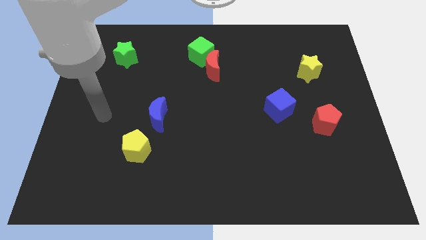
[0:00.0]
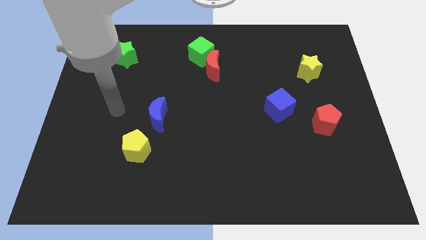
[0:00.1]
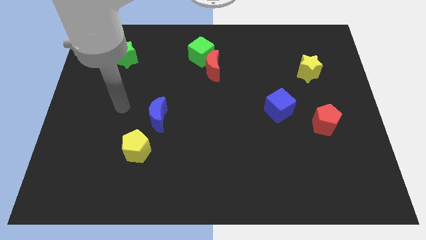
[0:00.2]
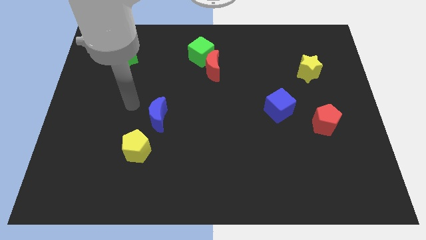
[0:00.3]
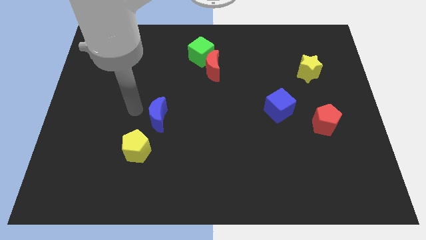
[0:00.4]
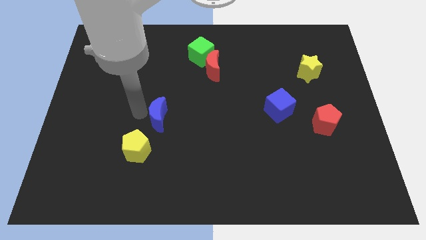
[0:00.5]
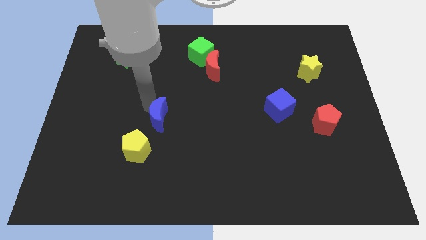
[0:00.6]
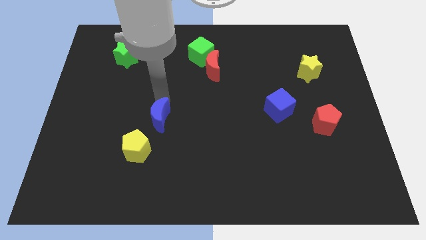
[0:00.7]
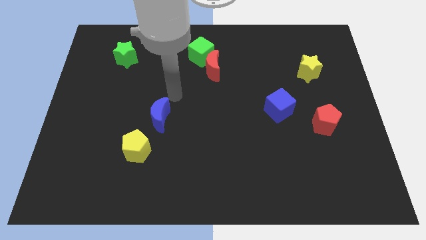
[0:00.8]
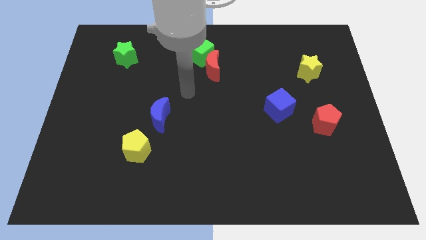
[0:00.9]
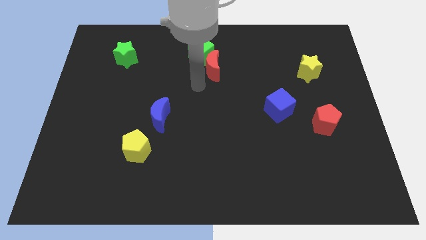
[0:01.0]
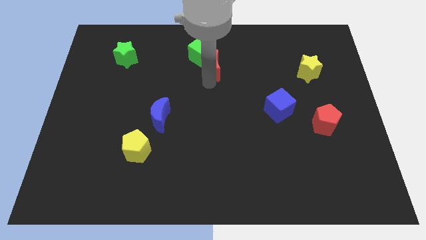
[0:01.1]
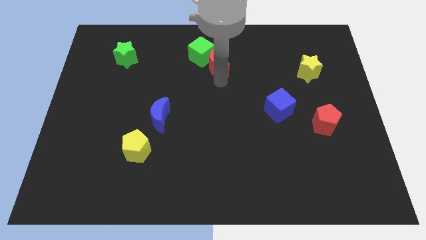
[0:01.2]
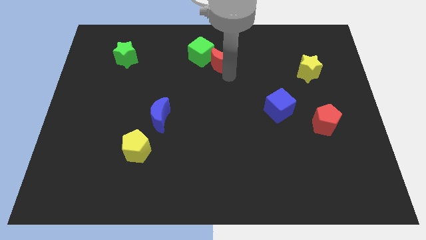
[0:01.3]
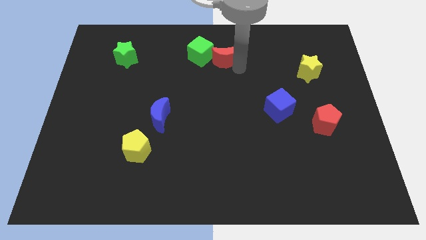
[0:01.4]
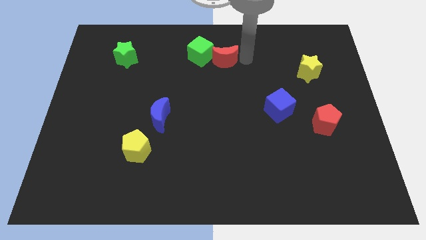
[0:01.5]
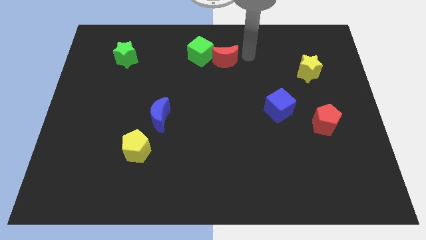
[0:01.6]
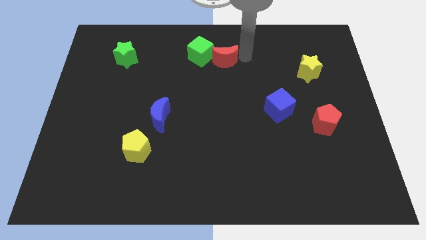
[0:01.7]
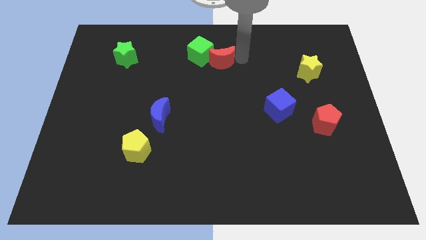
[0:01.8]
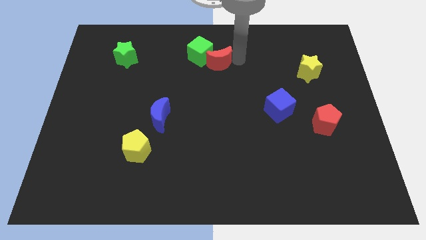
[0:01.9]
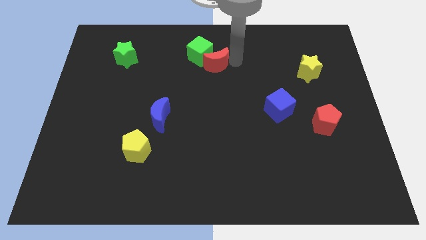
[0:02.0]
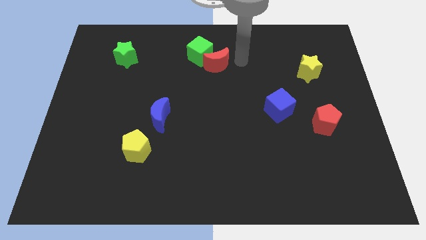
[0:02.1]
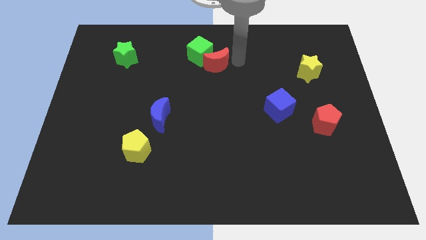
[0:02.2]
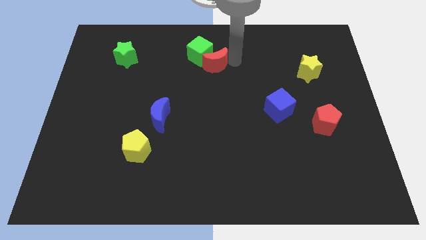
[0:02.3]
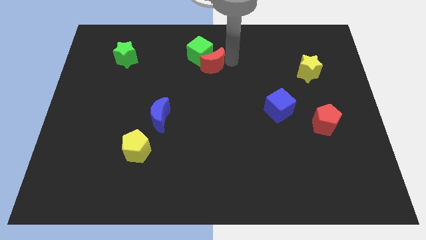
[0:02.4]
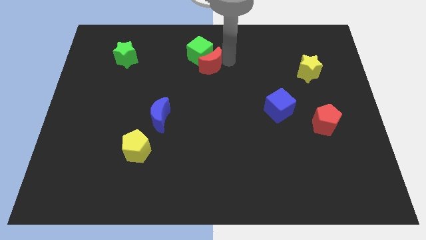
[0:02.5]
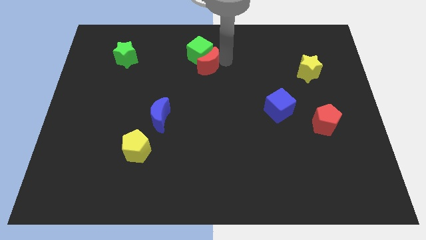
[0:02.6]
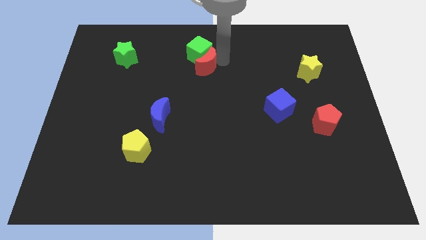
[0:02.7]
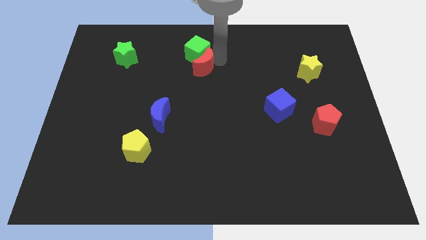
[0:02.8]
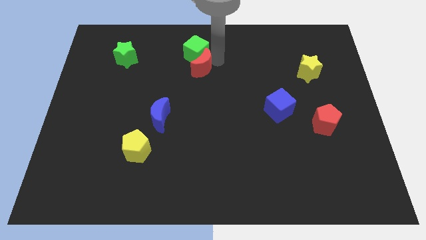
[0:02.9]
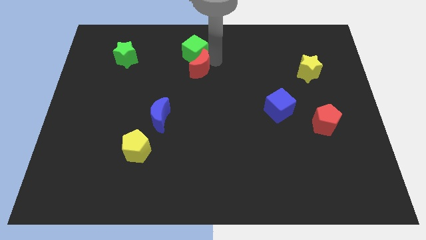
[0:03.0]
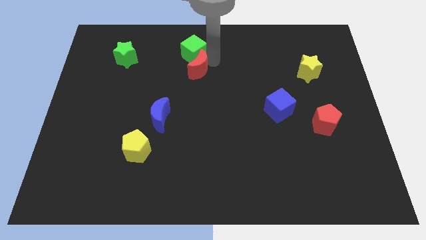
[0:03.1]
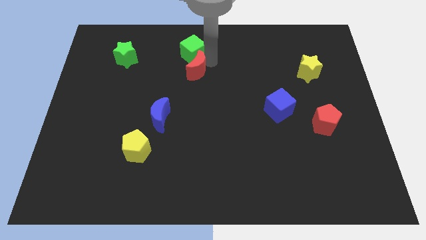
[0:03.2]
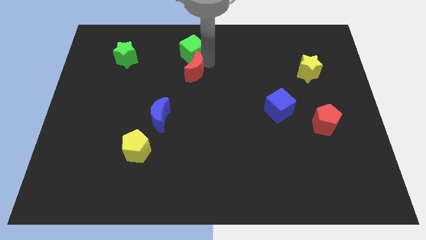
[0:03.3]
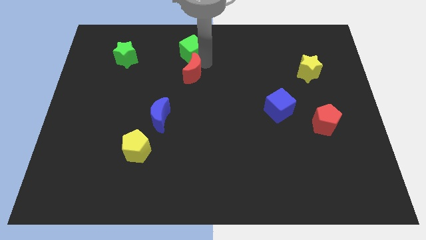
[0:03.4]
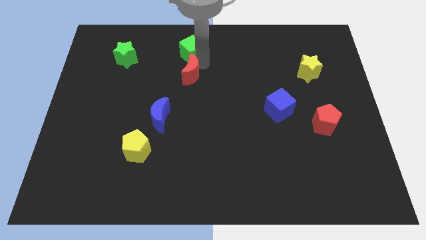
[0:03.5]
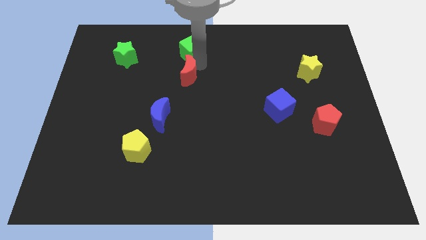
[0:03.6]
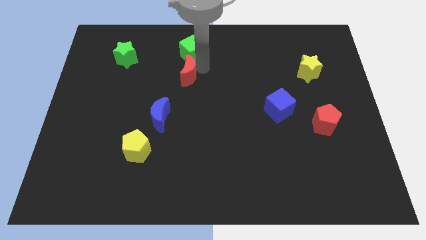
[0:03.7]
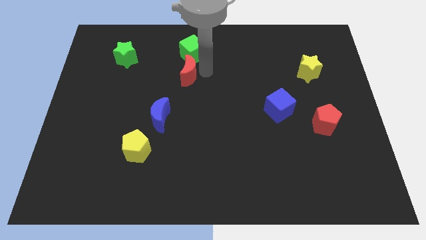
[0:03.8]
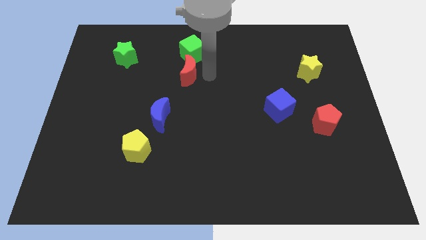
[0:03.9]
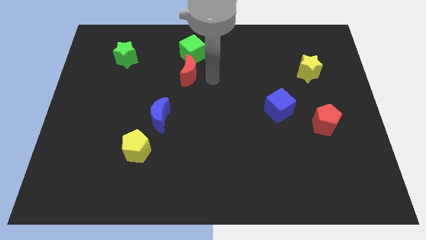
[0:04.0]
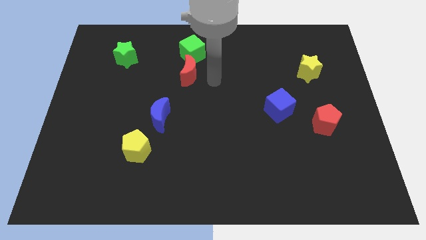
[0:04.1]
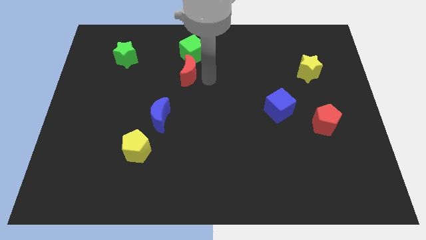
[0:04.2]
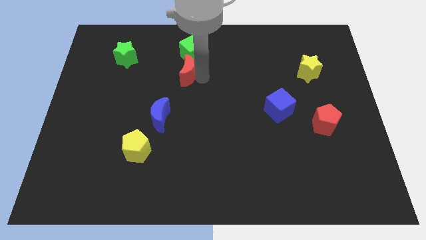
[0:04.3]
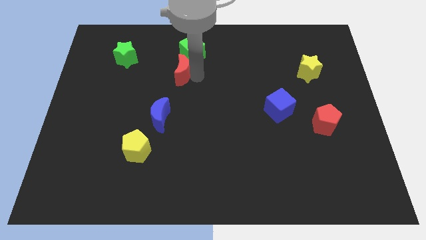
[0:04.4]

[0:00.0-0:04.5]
move the red moon left slightly

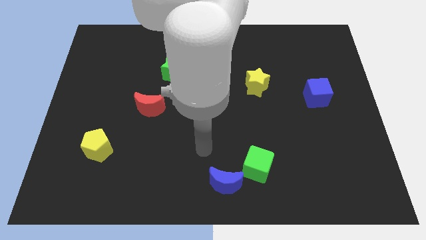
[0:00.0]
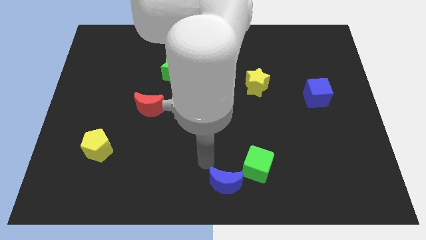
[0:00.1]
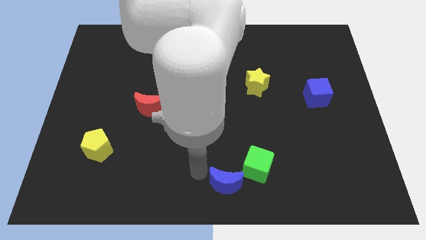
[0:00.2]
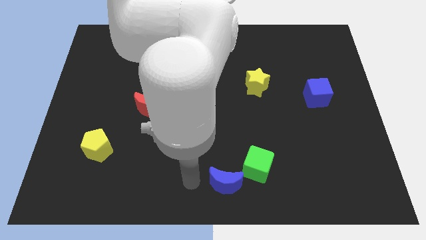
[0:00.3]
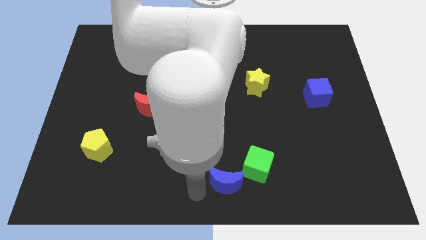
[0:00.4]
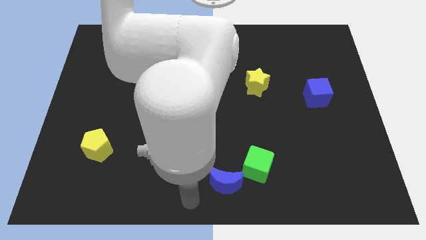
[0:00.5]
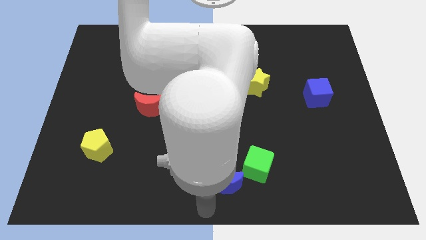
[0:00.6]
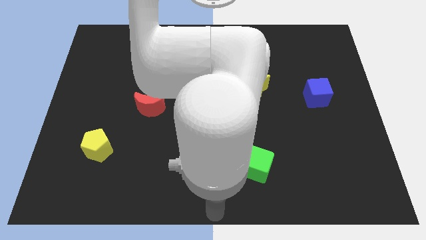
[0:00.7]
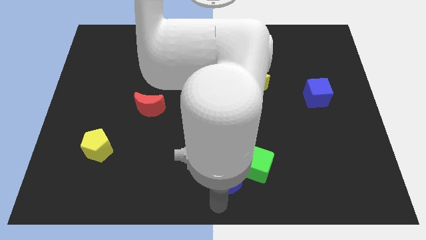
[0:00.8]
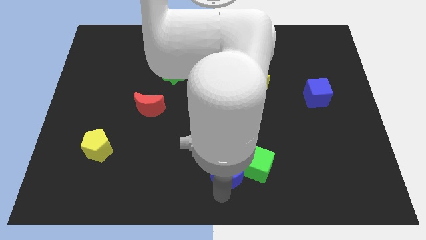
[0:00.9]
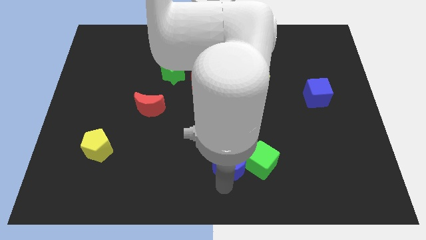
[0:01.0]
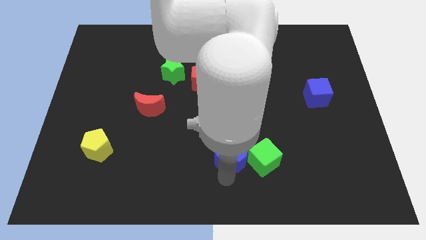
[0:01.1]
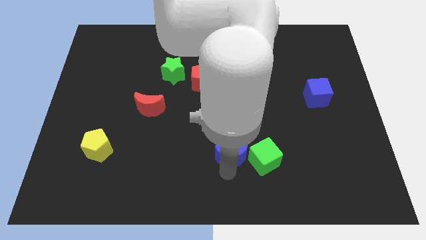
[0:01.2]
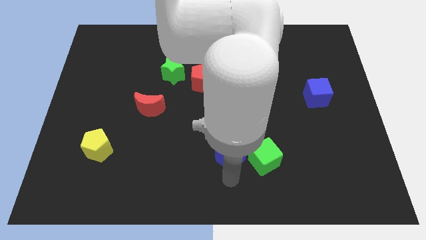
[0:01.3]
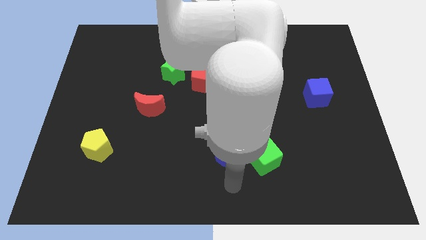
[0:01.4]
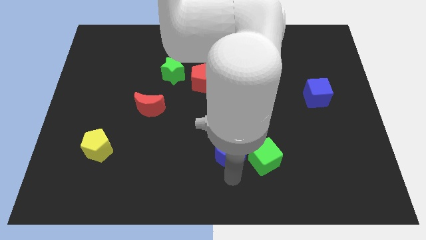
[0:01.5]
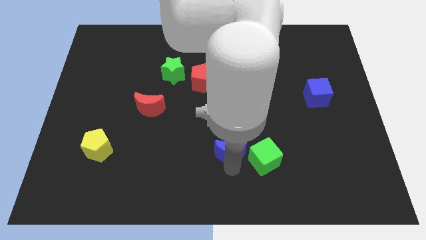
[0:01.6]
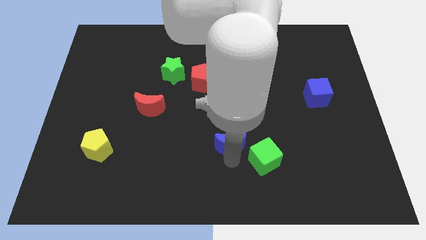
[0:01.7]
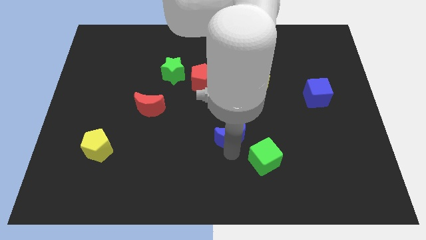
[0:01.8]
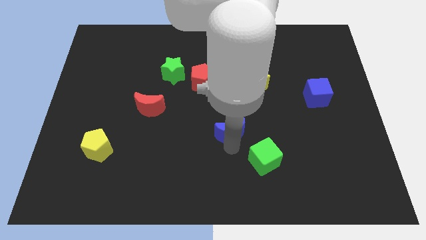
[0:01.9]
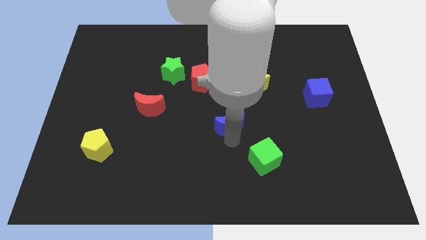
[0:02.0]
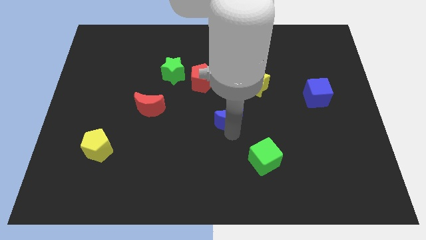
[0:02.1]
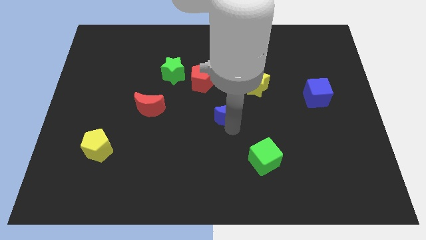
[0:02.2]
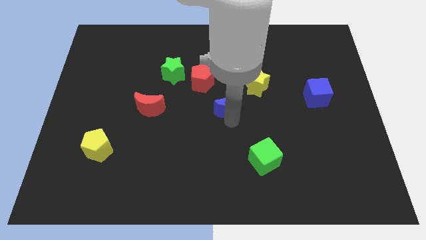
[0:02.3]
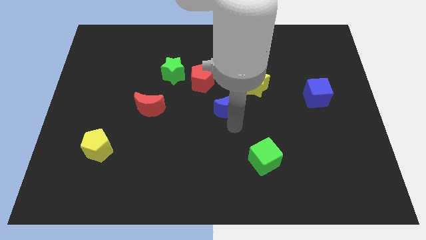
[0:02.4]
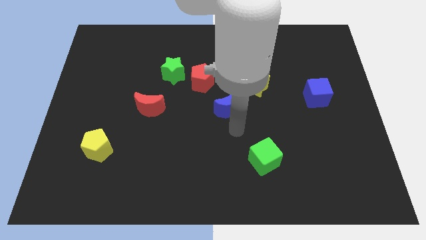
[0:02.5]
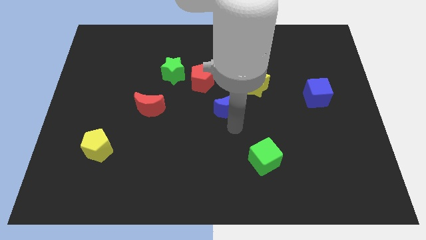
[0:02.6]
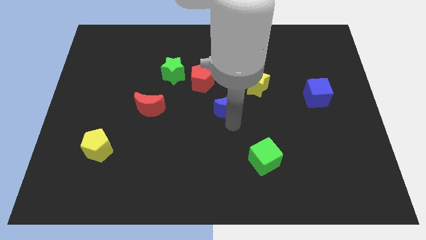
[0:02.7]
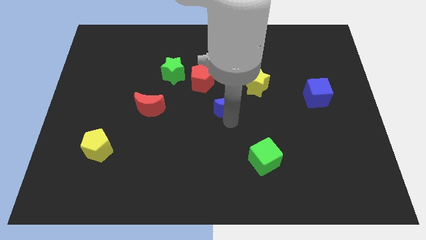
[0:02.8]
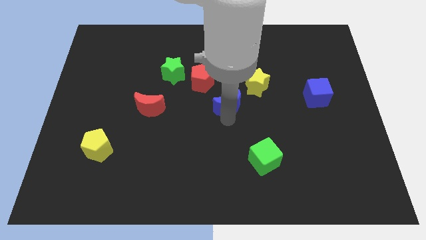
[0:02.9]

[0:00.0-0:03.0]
push the blue moon up

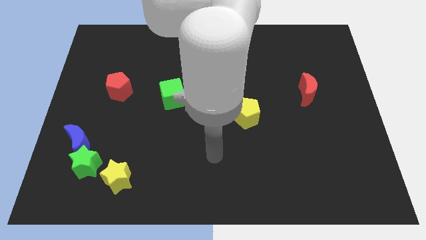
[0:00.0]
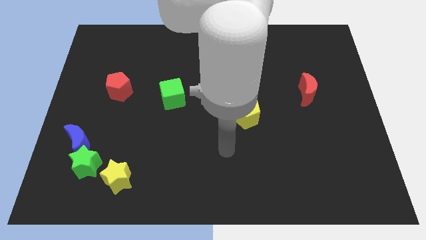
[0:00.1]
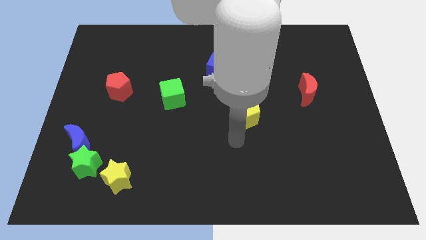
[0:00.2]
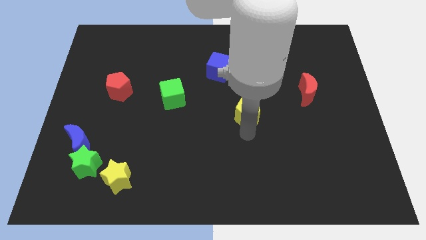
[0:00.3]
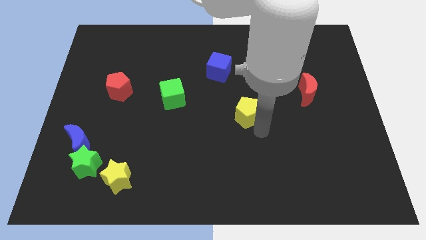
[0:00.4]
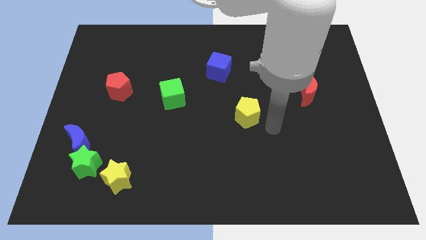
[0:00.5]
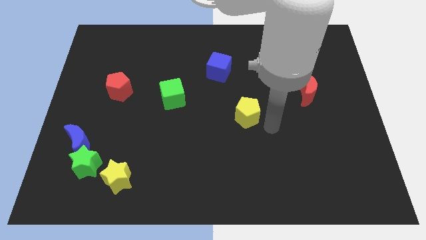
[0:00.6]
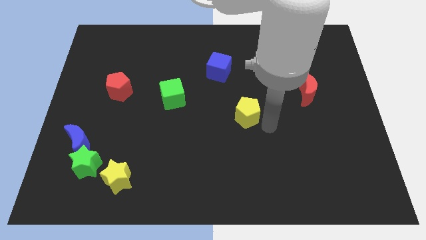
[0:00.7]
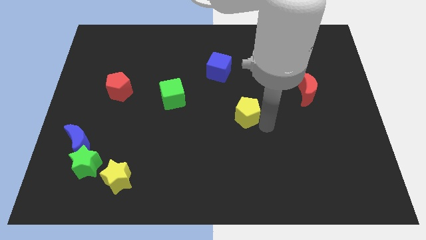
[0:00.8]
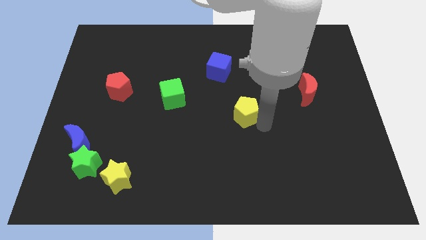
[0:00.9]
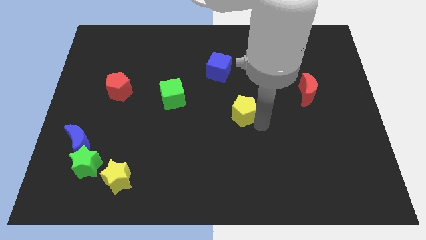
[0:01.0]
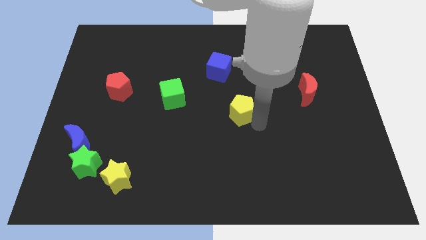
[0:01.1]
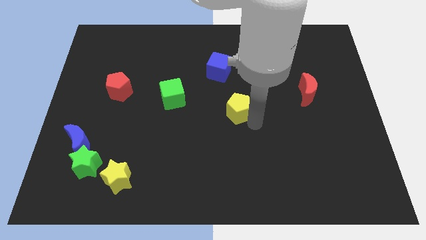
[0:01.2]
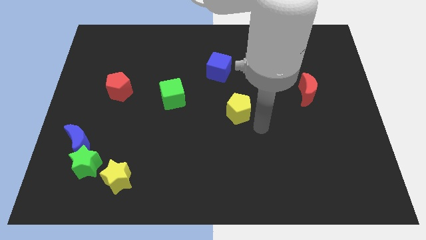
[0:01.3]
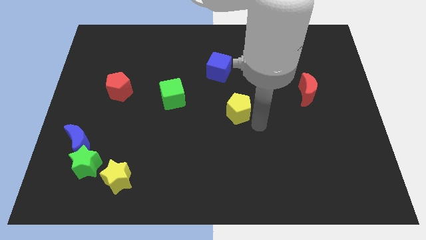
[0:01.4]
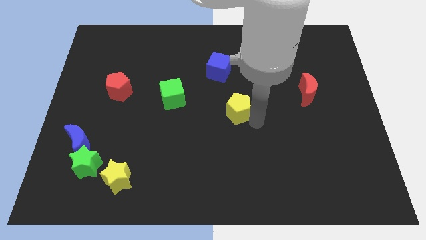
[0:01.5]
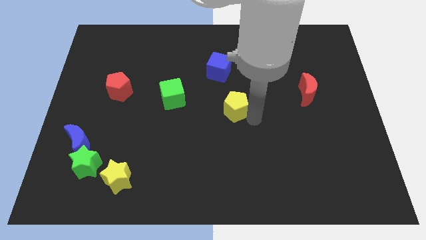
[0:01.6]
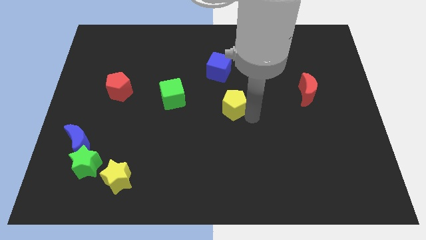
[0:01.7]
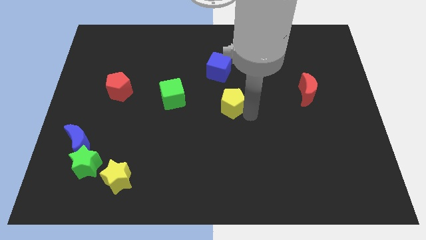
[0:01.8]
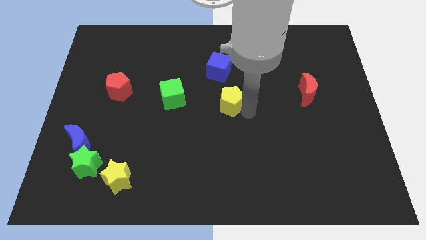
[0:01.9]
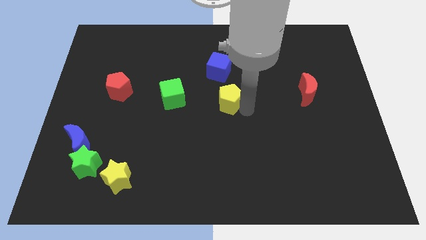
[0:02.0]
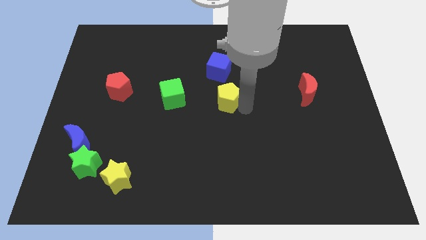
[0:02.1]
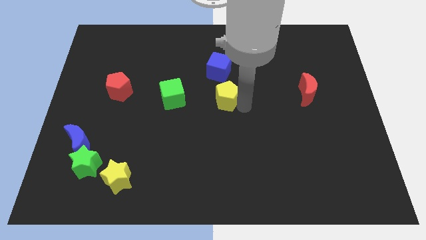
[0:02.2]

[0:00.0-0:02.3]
slide the yellow pentagon diagonally upwards and to the left a bit
